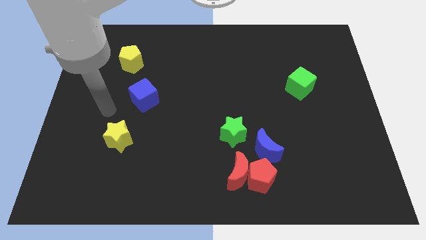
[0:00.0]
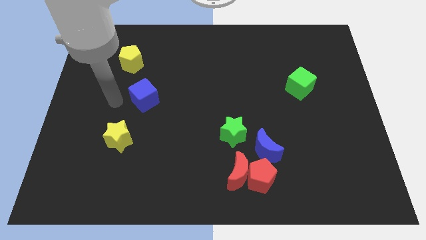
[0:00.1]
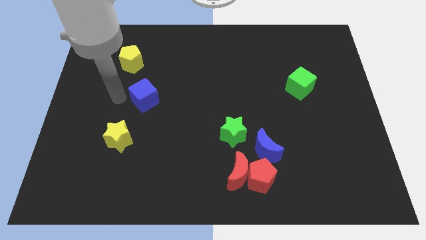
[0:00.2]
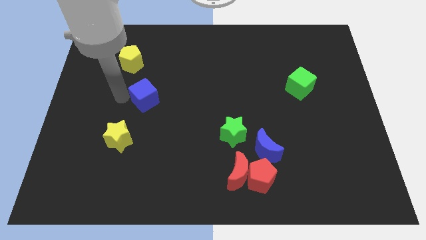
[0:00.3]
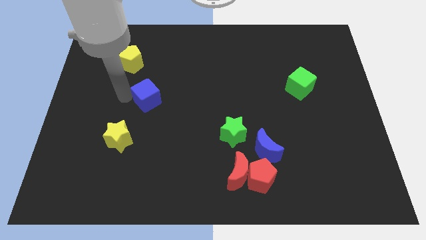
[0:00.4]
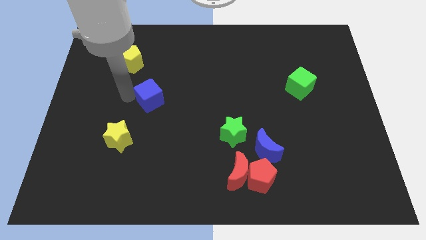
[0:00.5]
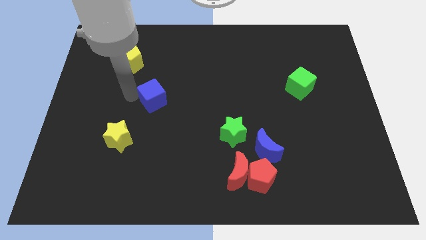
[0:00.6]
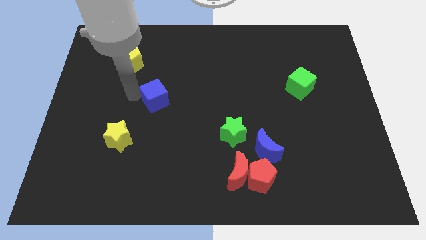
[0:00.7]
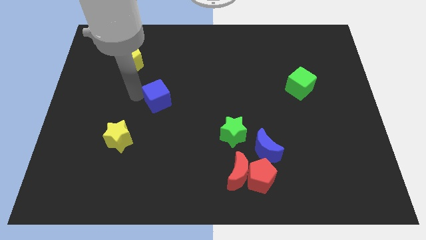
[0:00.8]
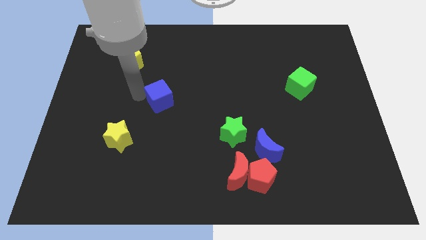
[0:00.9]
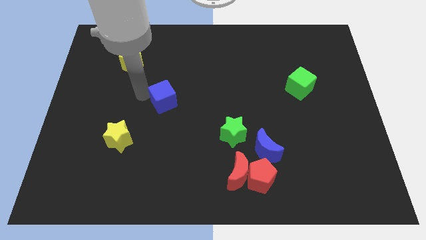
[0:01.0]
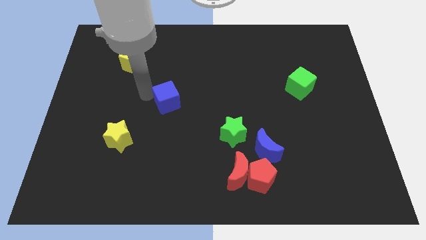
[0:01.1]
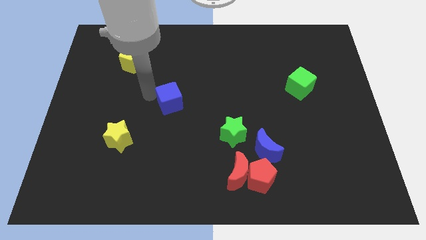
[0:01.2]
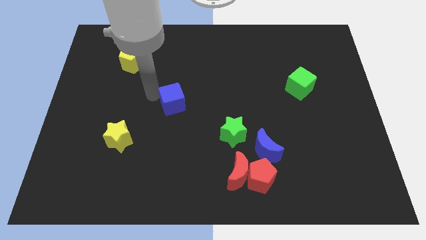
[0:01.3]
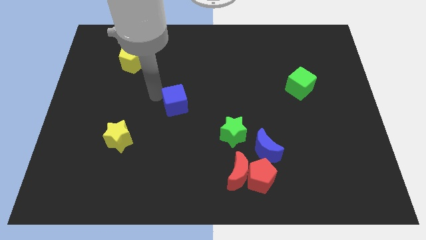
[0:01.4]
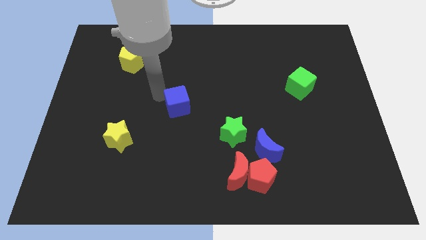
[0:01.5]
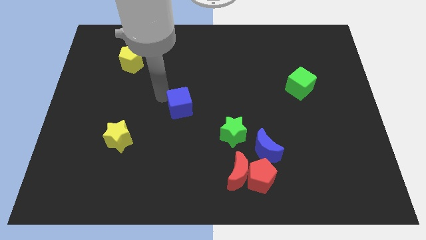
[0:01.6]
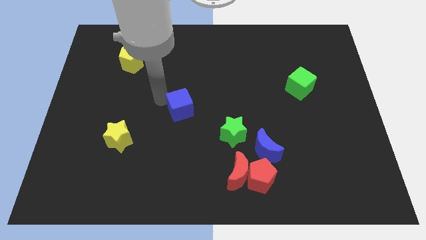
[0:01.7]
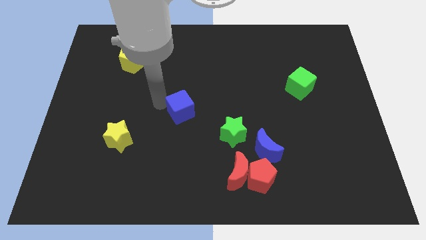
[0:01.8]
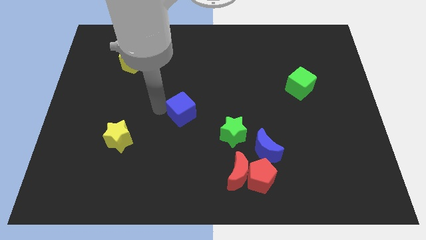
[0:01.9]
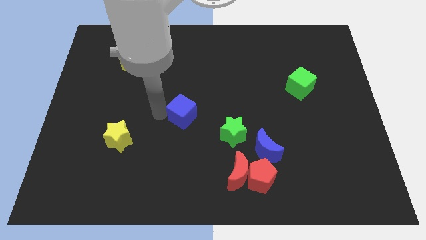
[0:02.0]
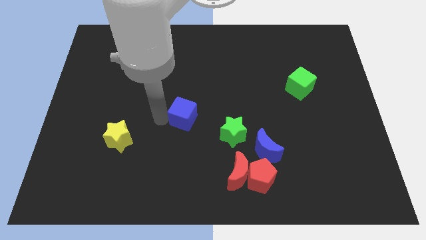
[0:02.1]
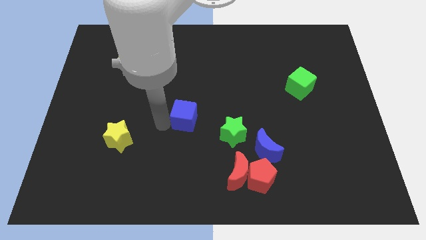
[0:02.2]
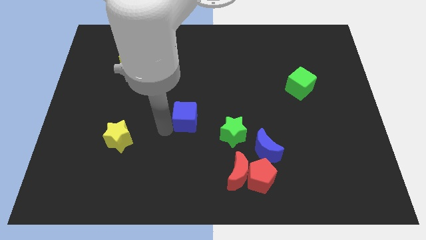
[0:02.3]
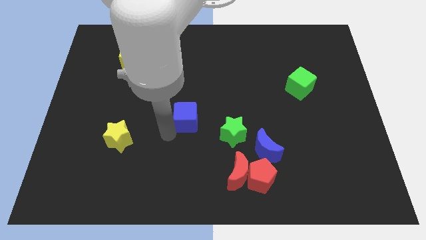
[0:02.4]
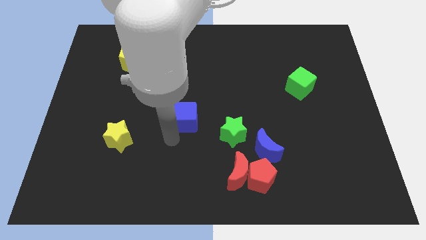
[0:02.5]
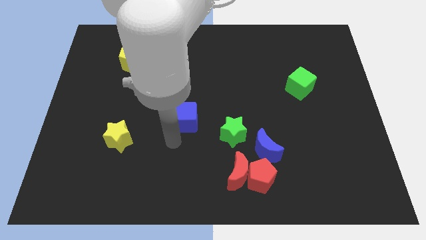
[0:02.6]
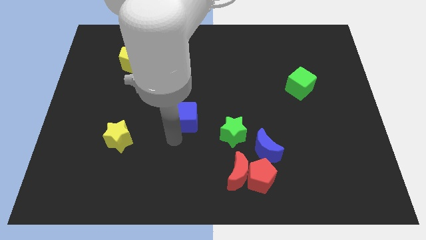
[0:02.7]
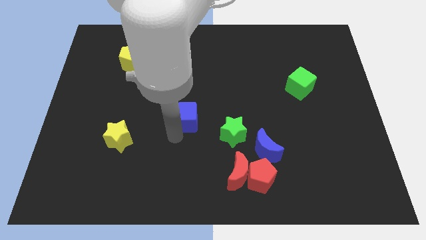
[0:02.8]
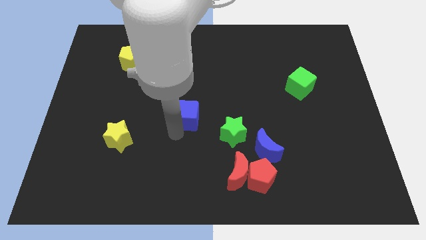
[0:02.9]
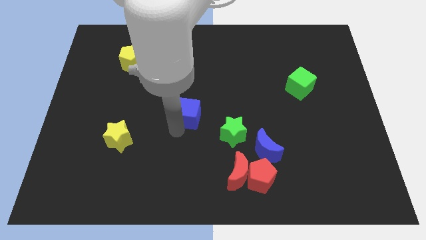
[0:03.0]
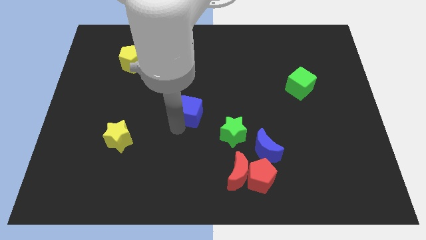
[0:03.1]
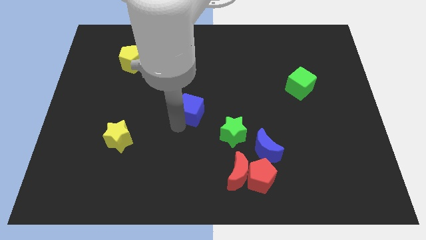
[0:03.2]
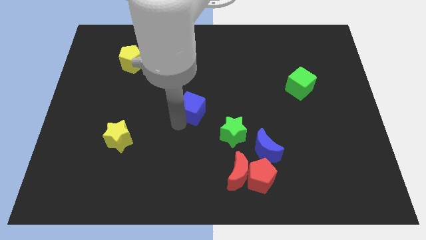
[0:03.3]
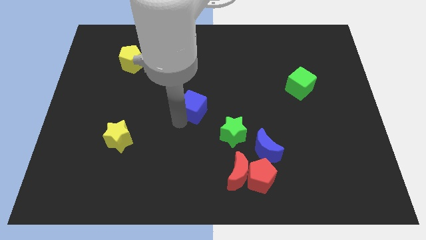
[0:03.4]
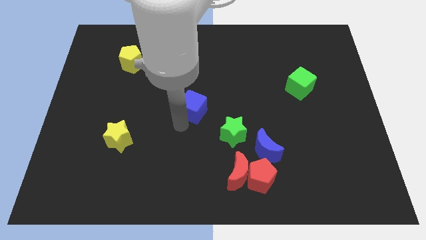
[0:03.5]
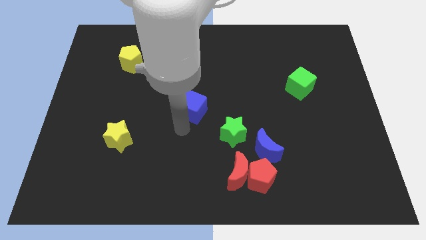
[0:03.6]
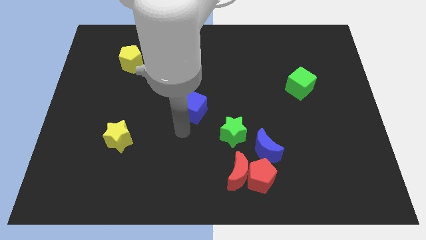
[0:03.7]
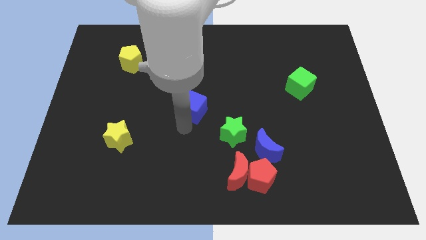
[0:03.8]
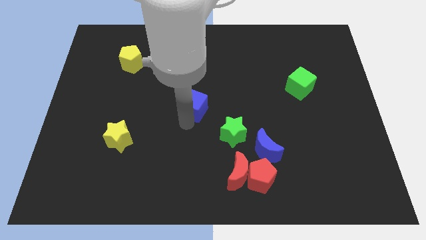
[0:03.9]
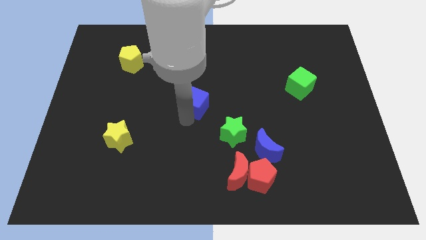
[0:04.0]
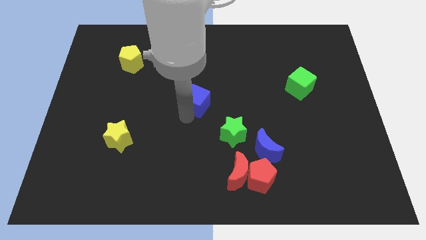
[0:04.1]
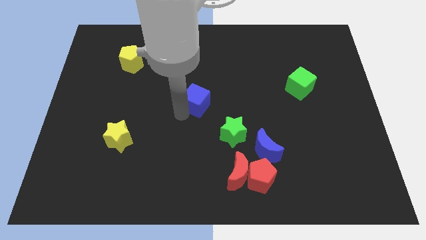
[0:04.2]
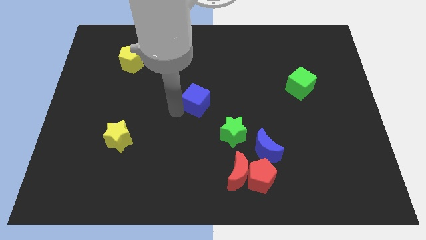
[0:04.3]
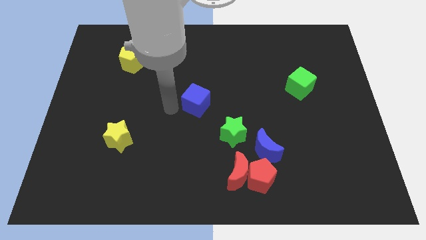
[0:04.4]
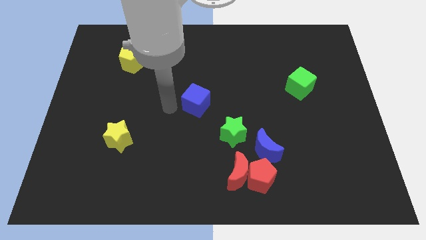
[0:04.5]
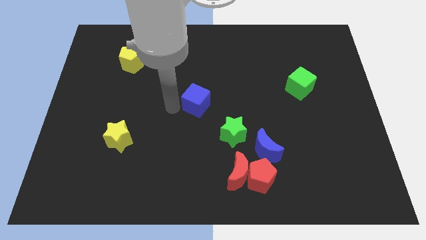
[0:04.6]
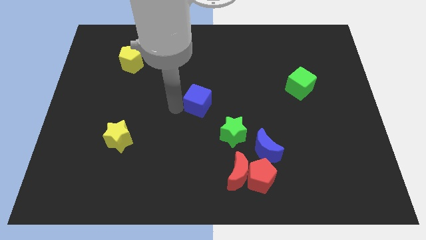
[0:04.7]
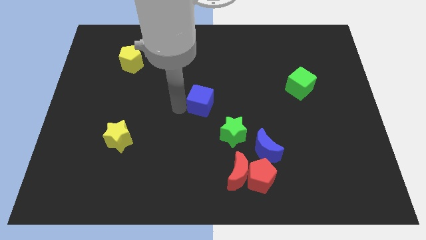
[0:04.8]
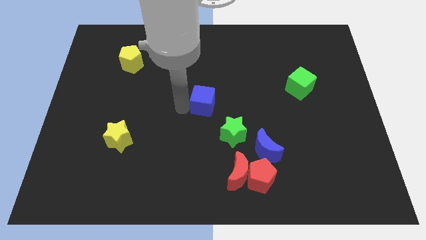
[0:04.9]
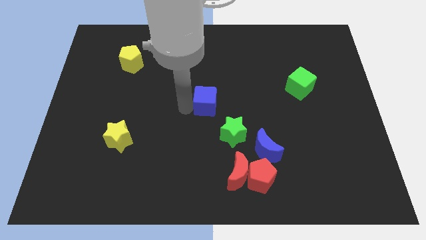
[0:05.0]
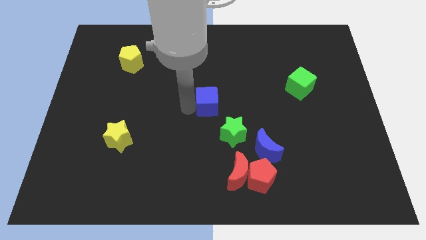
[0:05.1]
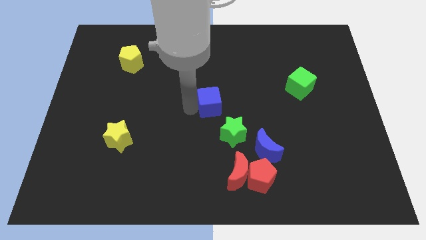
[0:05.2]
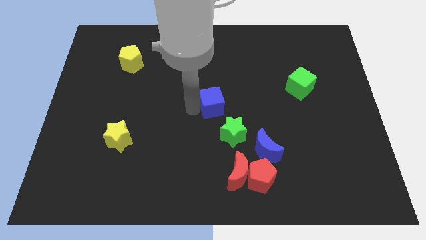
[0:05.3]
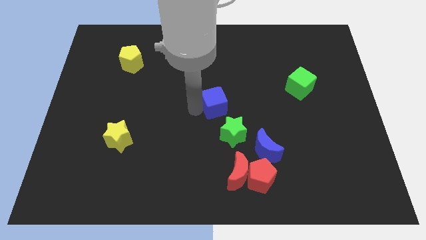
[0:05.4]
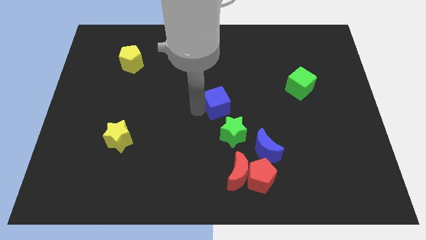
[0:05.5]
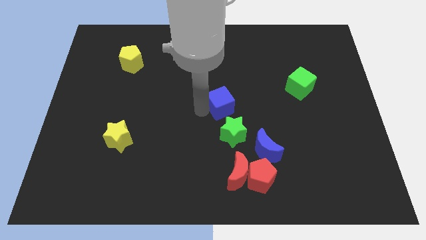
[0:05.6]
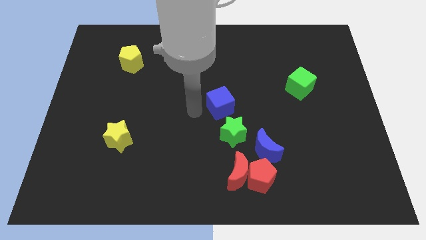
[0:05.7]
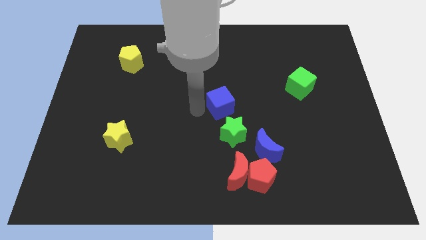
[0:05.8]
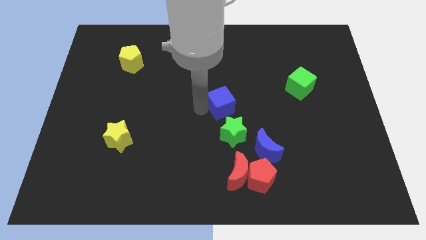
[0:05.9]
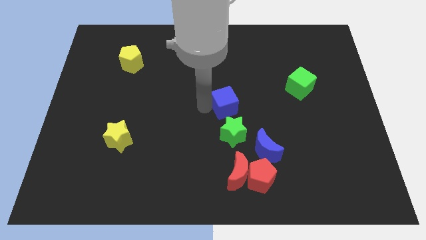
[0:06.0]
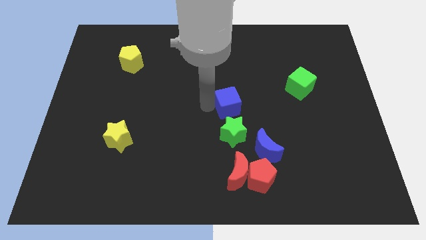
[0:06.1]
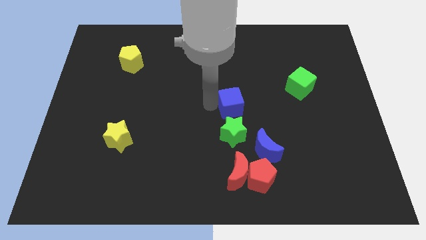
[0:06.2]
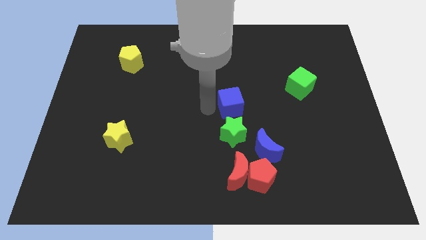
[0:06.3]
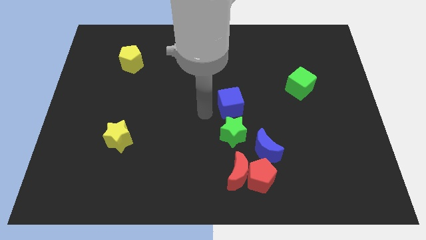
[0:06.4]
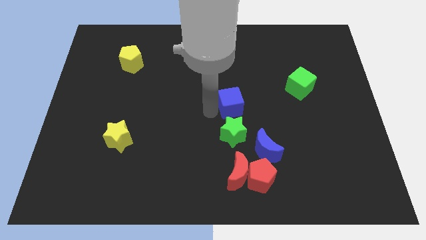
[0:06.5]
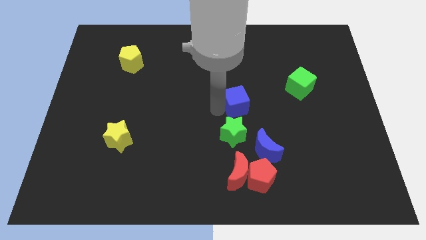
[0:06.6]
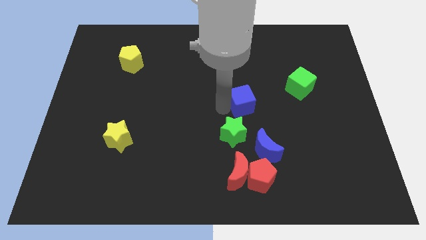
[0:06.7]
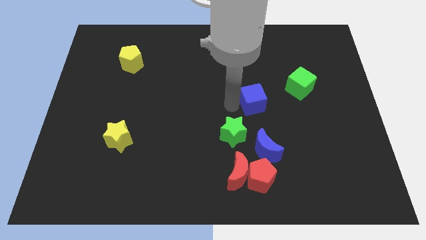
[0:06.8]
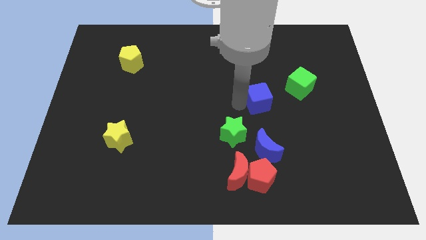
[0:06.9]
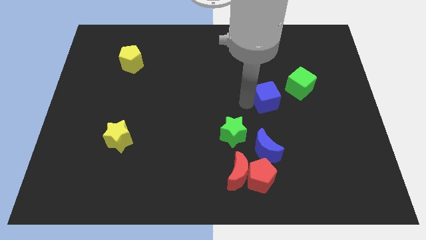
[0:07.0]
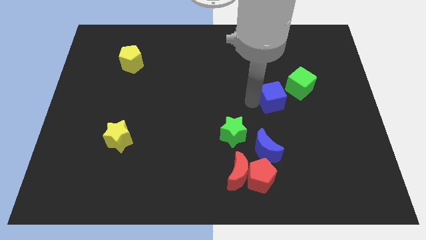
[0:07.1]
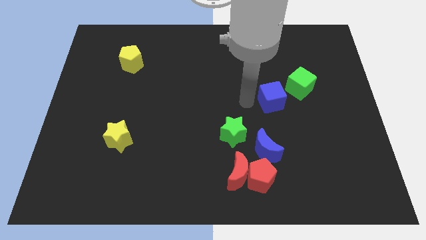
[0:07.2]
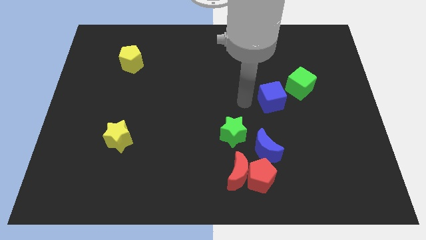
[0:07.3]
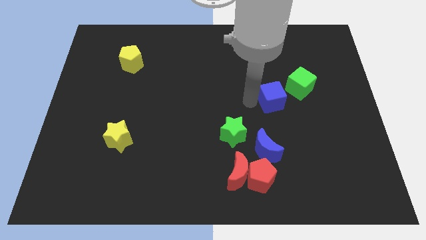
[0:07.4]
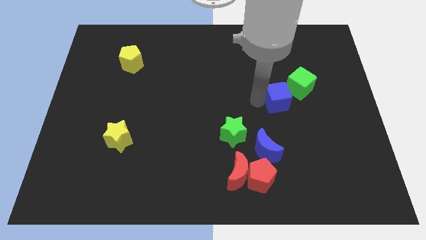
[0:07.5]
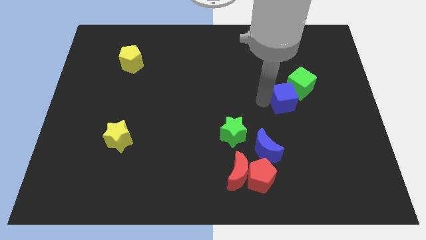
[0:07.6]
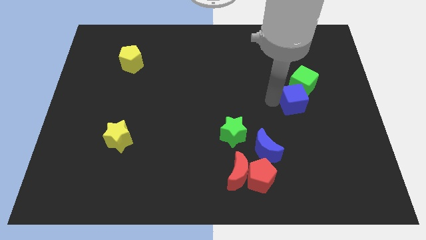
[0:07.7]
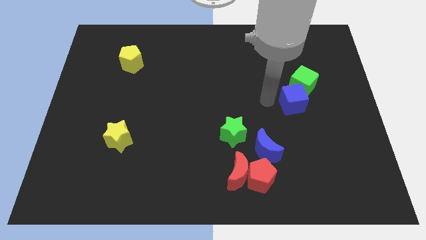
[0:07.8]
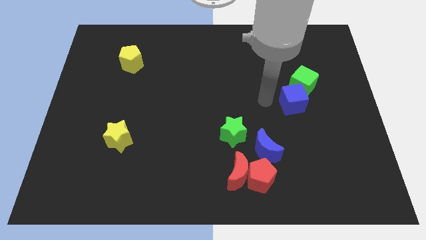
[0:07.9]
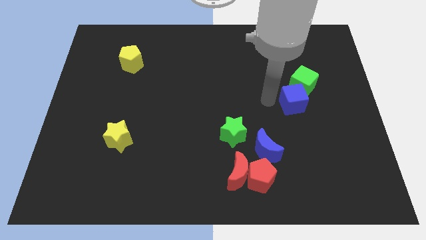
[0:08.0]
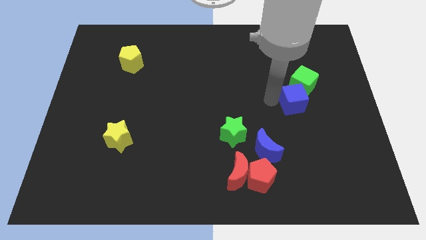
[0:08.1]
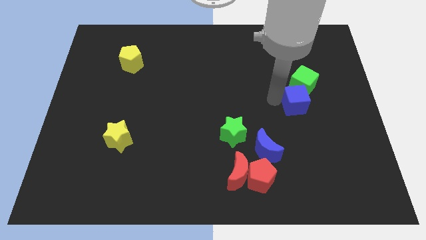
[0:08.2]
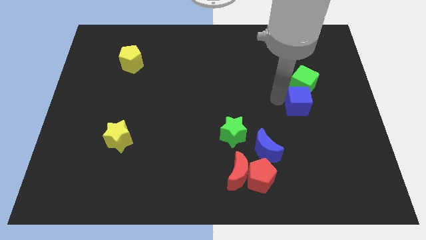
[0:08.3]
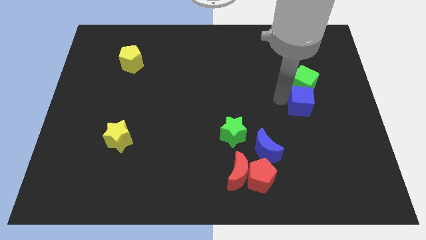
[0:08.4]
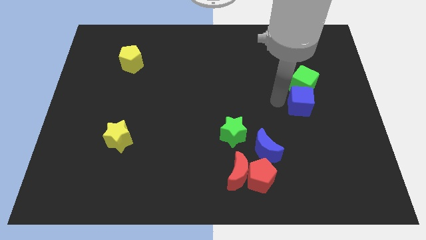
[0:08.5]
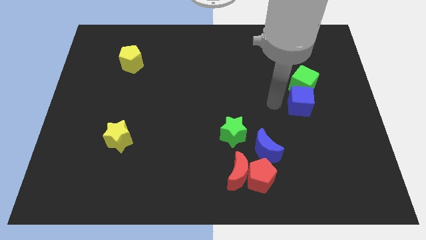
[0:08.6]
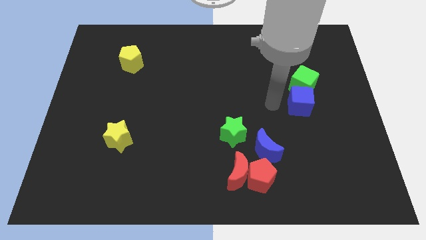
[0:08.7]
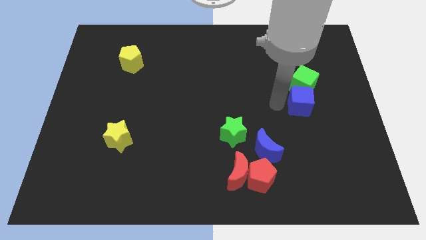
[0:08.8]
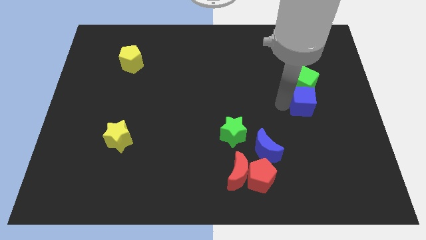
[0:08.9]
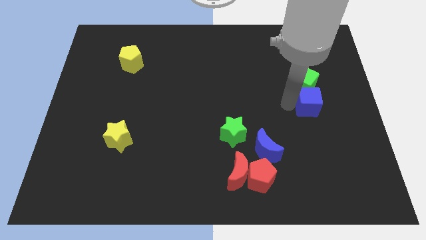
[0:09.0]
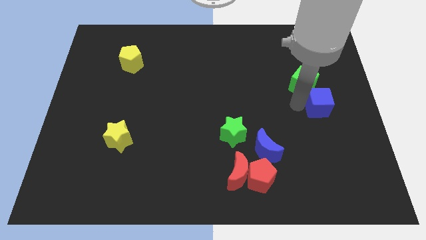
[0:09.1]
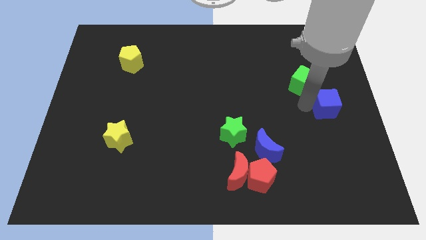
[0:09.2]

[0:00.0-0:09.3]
move the blue cube to the center right
